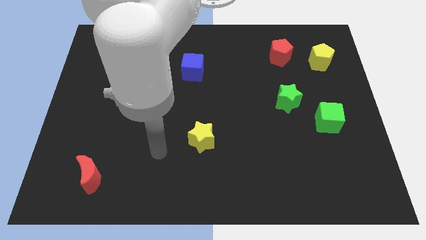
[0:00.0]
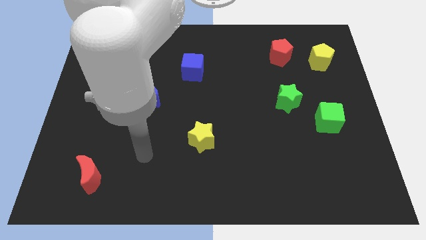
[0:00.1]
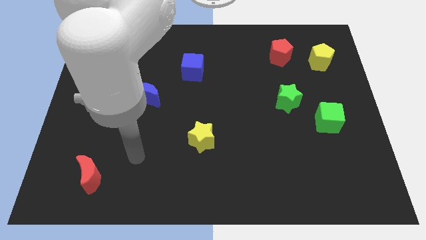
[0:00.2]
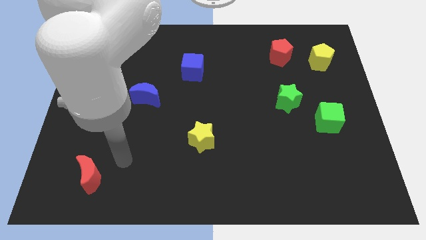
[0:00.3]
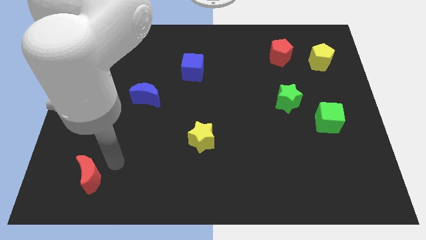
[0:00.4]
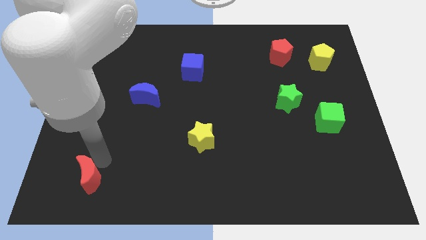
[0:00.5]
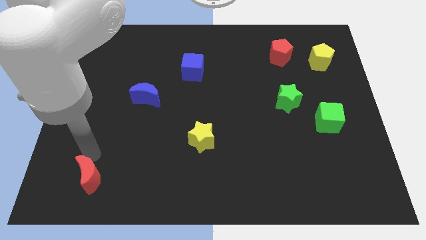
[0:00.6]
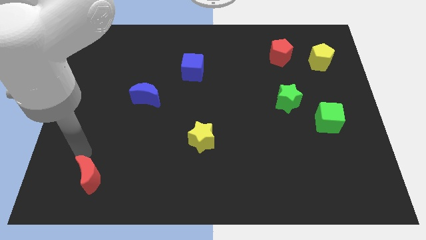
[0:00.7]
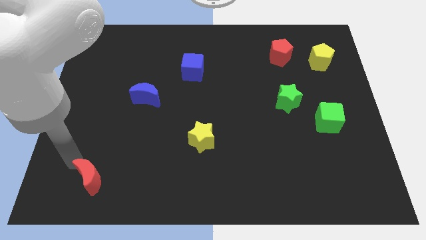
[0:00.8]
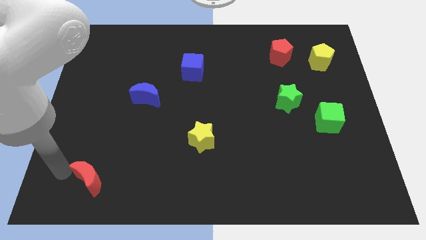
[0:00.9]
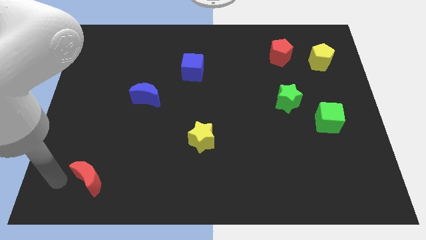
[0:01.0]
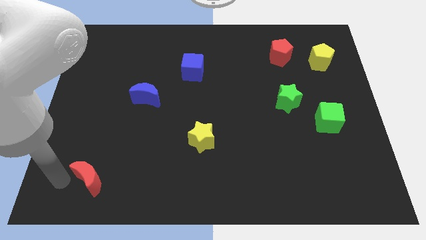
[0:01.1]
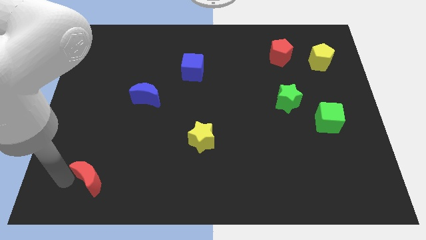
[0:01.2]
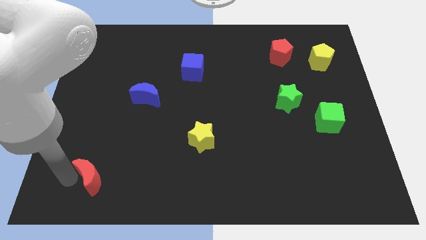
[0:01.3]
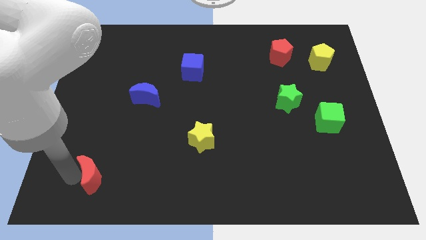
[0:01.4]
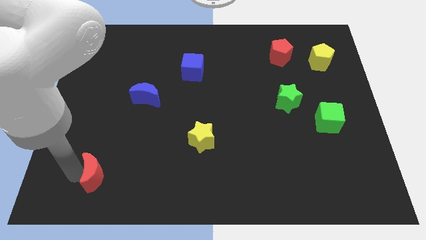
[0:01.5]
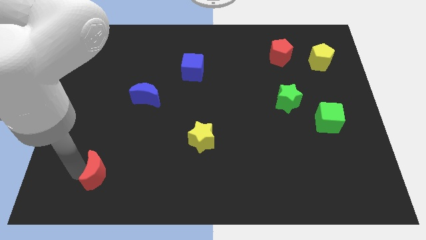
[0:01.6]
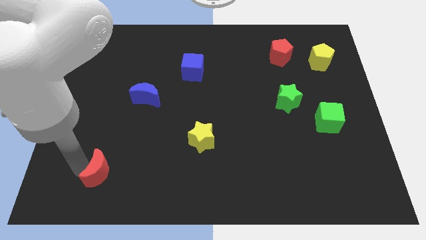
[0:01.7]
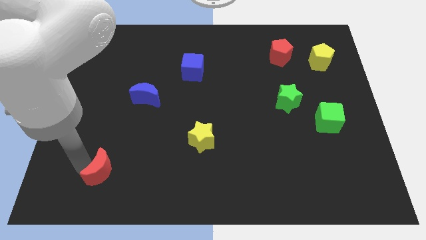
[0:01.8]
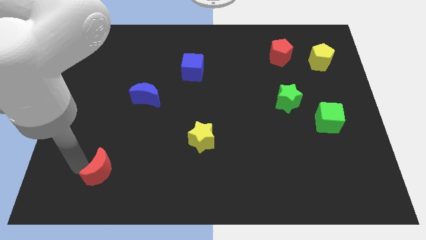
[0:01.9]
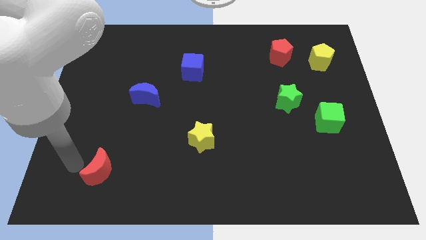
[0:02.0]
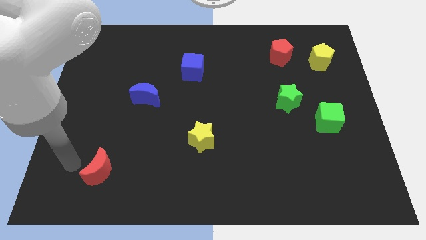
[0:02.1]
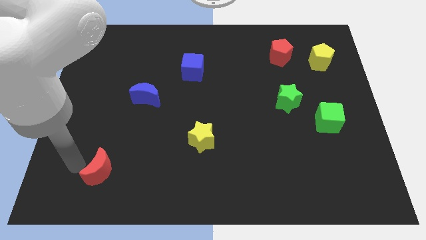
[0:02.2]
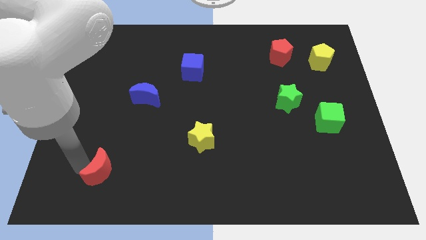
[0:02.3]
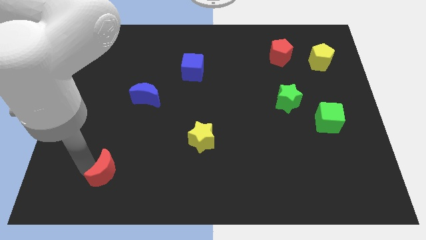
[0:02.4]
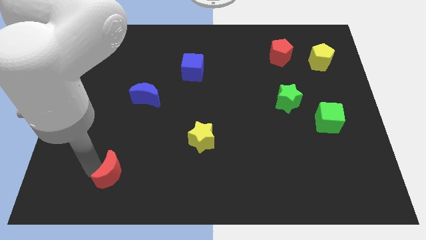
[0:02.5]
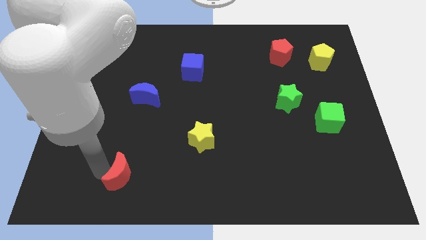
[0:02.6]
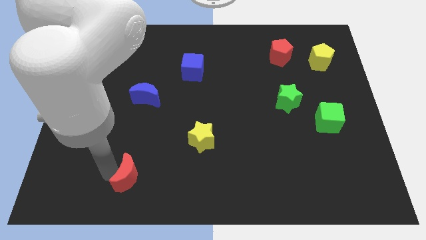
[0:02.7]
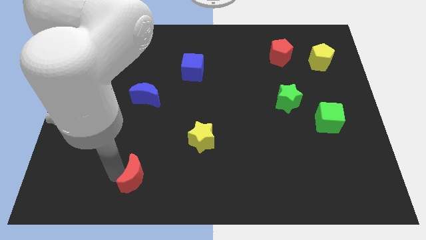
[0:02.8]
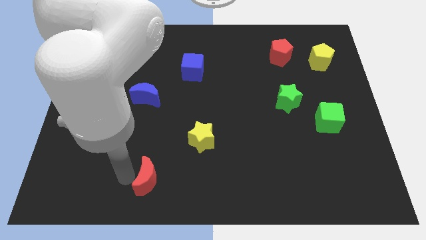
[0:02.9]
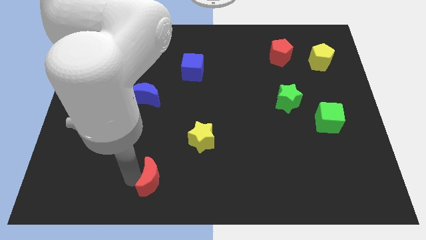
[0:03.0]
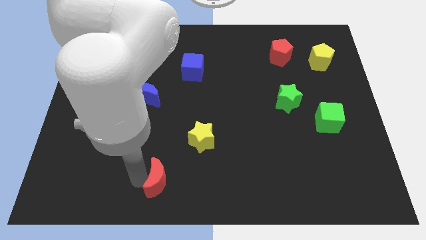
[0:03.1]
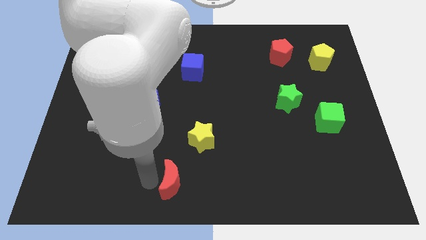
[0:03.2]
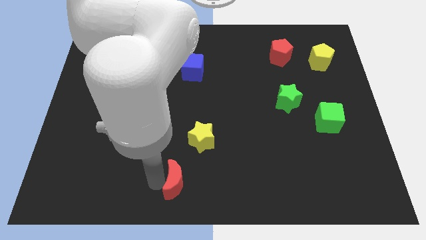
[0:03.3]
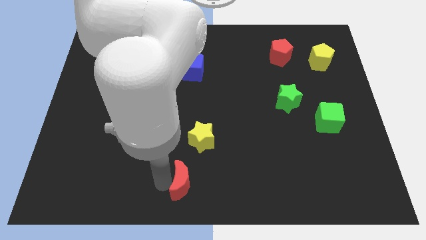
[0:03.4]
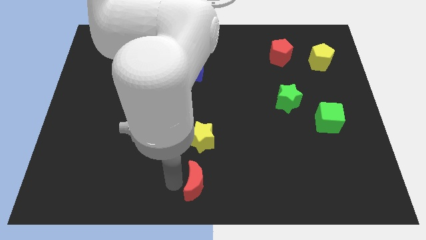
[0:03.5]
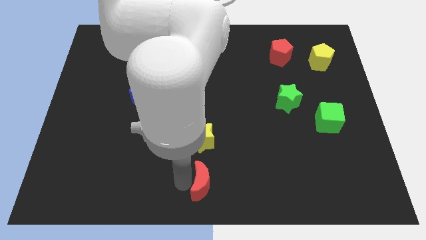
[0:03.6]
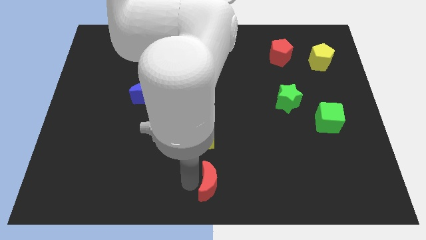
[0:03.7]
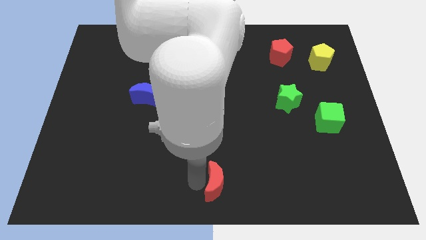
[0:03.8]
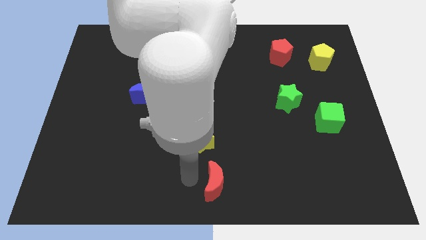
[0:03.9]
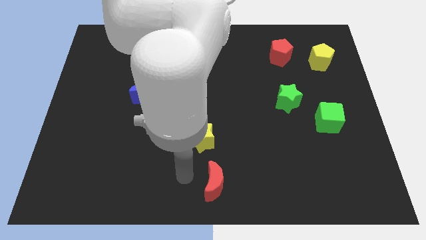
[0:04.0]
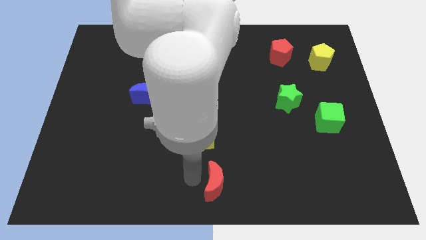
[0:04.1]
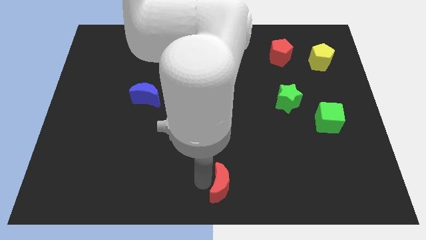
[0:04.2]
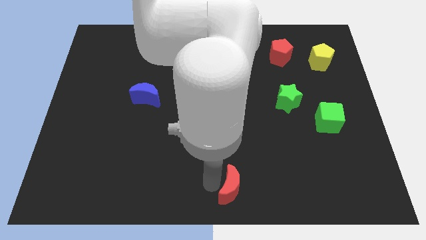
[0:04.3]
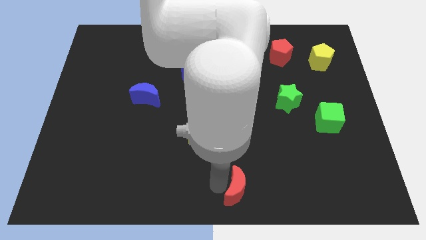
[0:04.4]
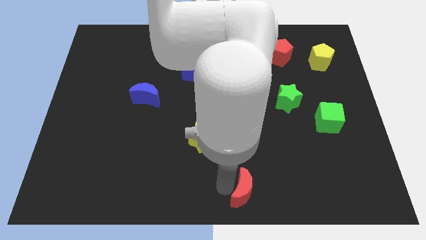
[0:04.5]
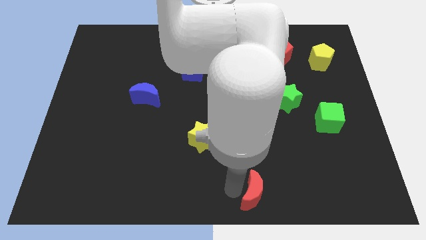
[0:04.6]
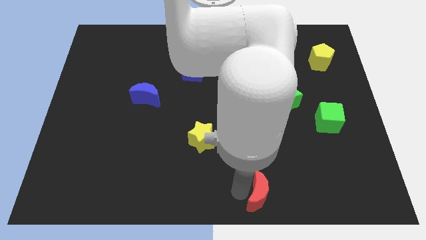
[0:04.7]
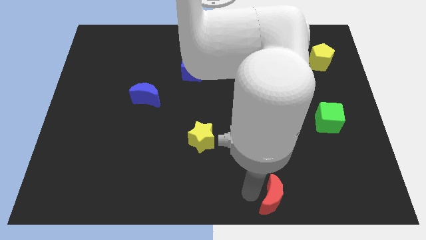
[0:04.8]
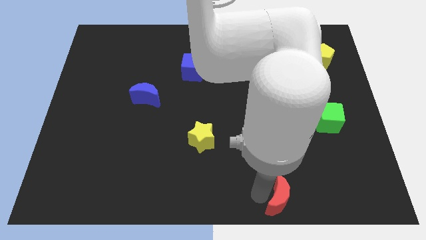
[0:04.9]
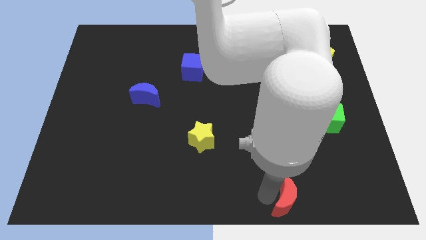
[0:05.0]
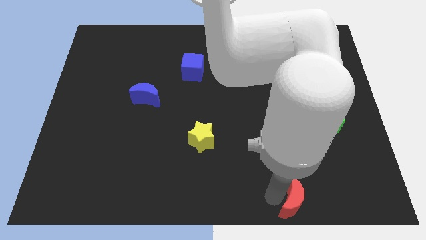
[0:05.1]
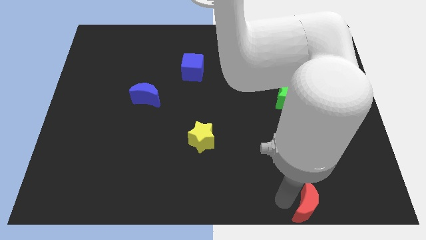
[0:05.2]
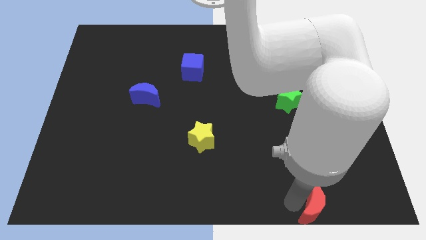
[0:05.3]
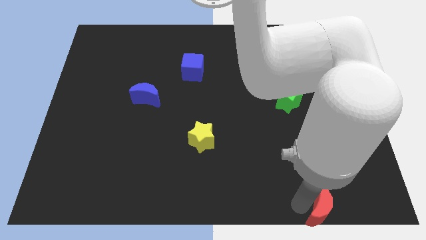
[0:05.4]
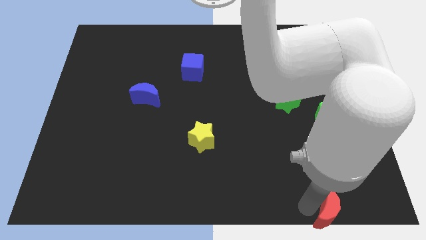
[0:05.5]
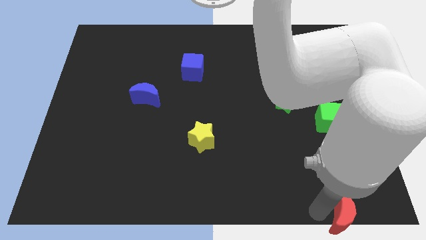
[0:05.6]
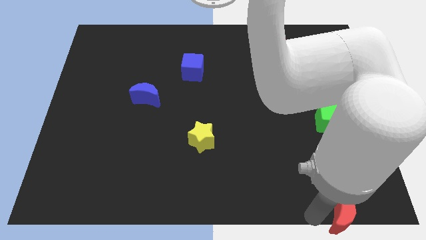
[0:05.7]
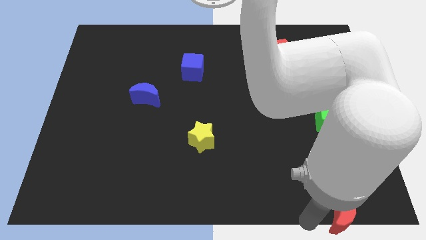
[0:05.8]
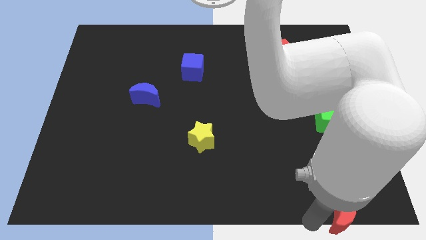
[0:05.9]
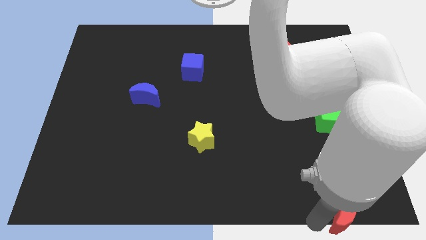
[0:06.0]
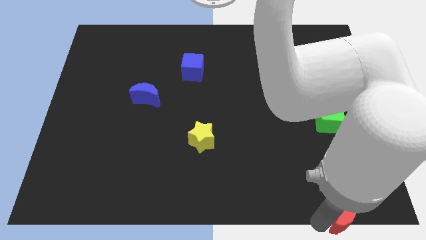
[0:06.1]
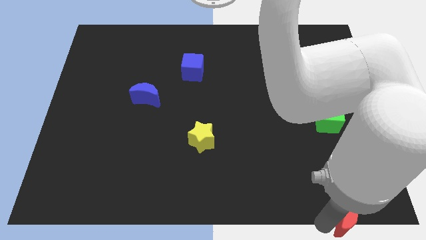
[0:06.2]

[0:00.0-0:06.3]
slide the red moon to the bottom right of the board
